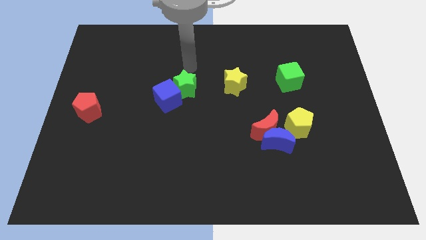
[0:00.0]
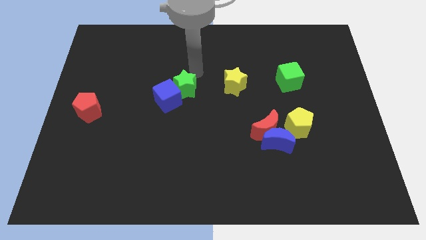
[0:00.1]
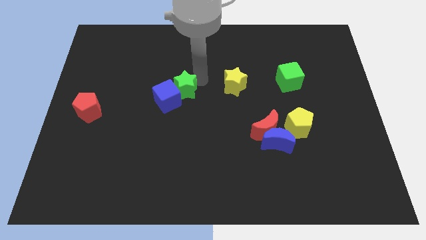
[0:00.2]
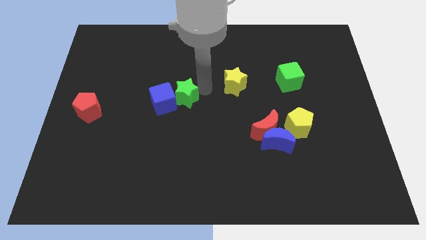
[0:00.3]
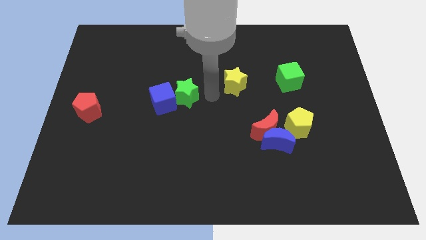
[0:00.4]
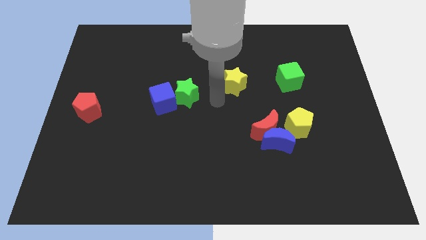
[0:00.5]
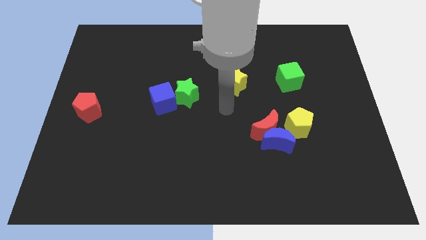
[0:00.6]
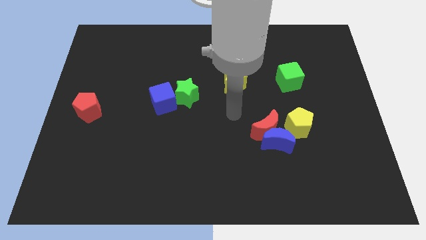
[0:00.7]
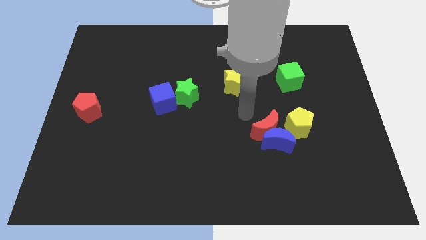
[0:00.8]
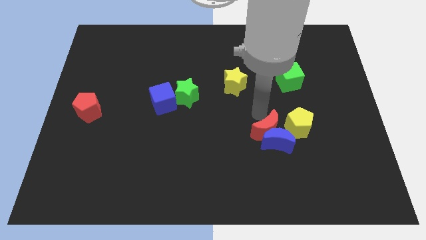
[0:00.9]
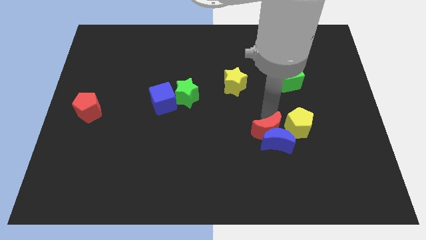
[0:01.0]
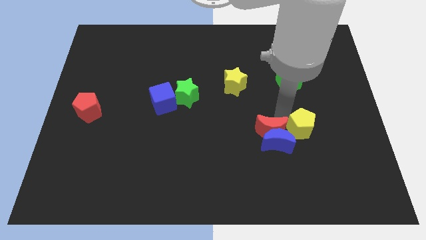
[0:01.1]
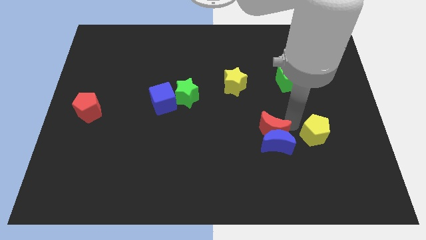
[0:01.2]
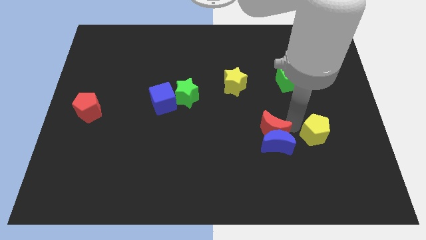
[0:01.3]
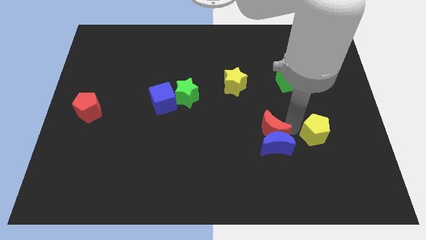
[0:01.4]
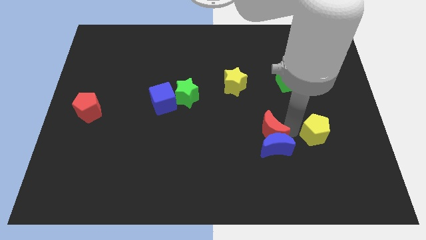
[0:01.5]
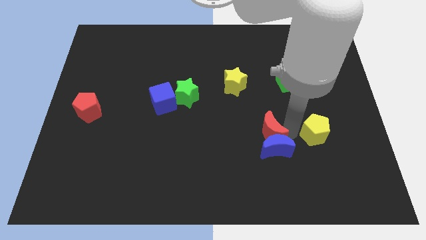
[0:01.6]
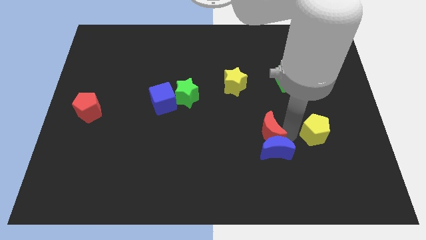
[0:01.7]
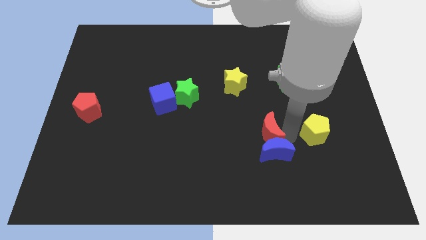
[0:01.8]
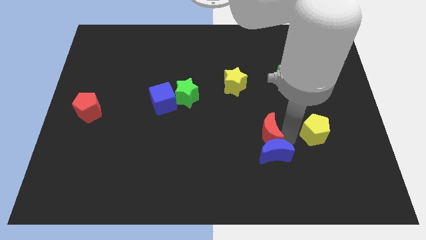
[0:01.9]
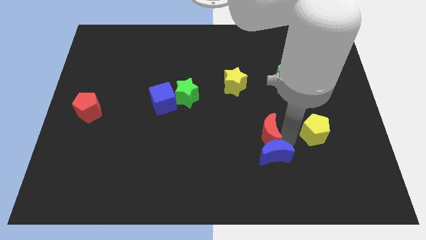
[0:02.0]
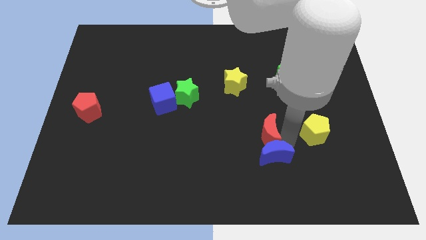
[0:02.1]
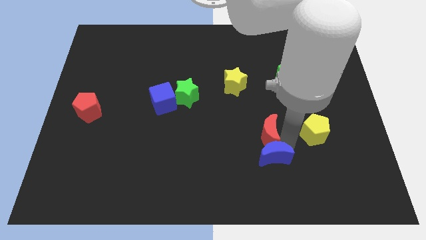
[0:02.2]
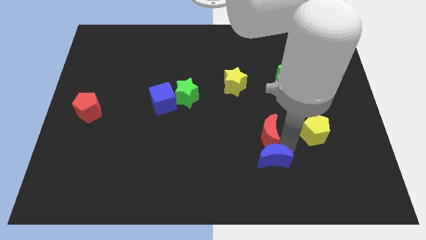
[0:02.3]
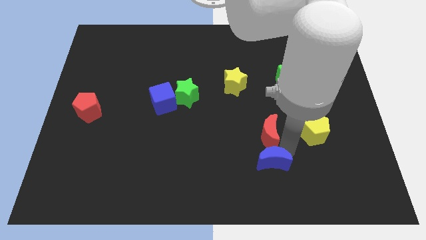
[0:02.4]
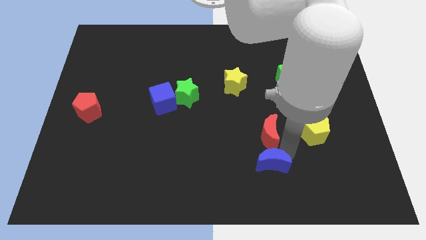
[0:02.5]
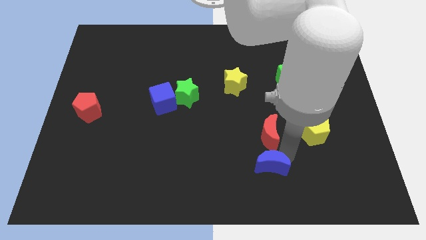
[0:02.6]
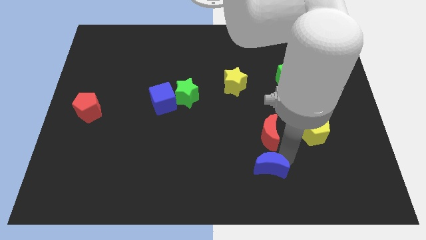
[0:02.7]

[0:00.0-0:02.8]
pull the blue moon apart from the red moon and yellow pentagon

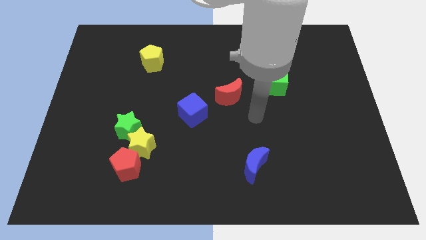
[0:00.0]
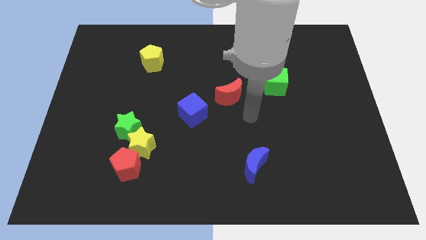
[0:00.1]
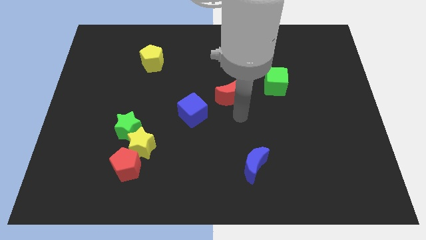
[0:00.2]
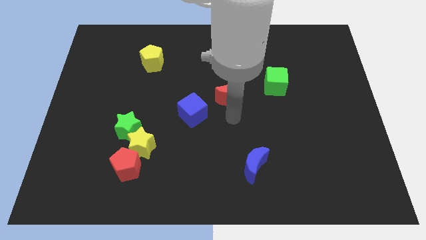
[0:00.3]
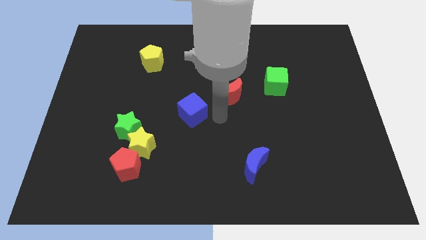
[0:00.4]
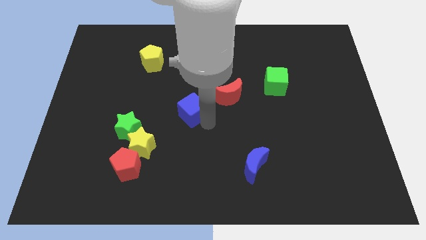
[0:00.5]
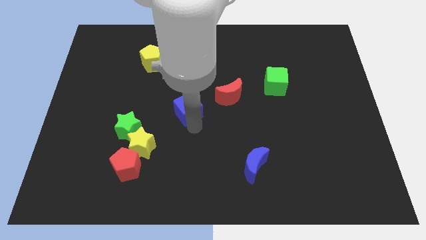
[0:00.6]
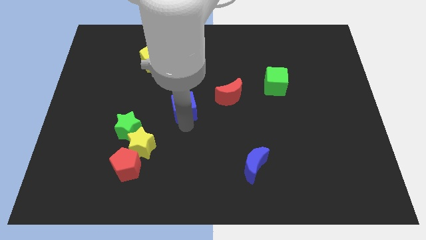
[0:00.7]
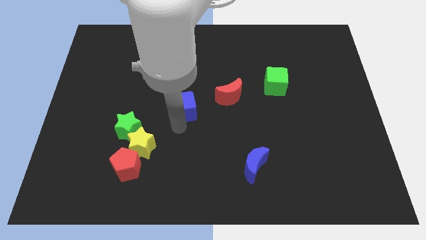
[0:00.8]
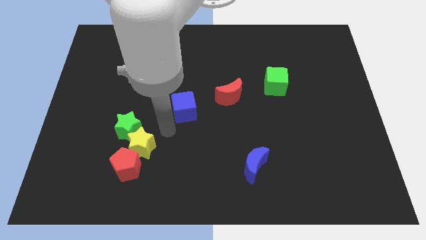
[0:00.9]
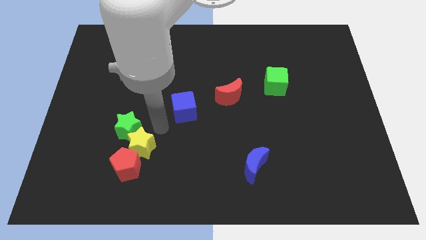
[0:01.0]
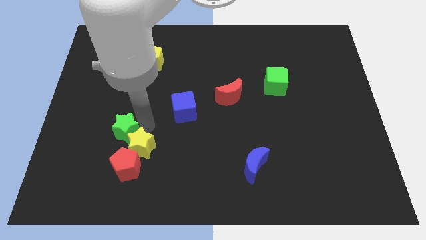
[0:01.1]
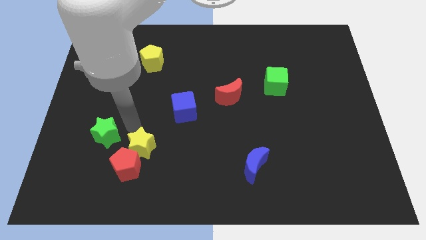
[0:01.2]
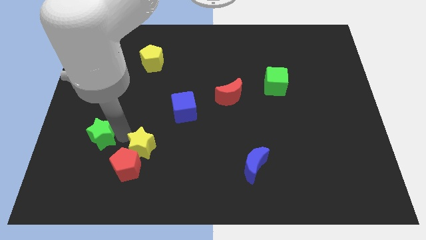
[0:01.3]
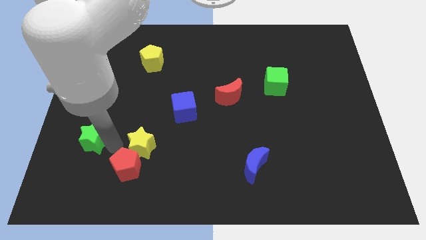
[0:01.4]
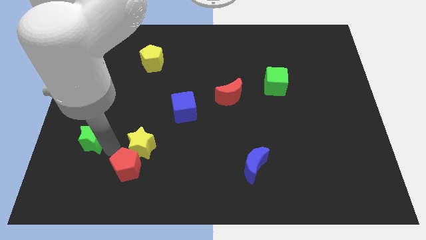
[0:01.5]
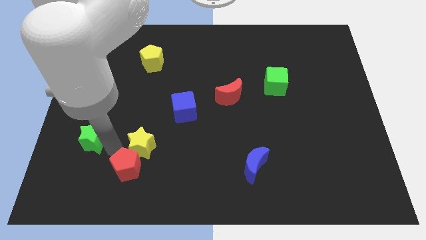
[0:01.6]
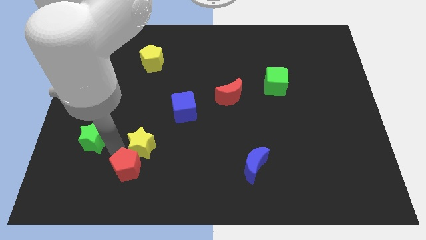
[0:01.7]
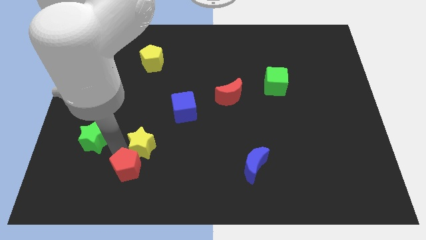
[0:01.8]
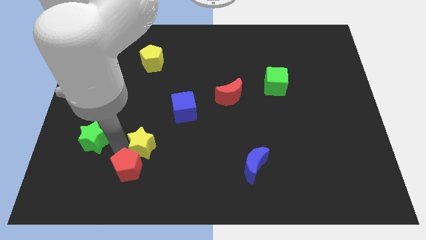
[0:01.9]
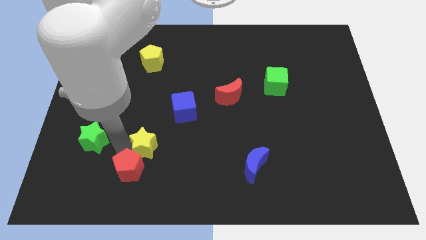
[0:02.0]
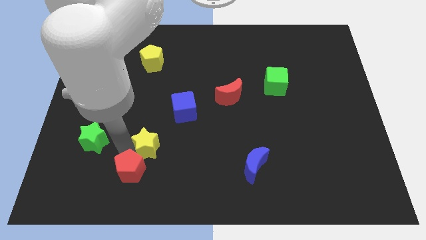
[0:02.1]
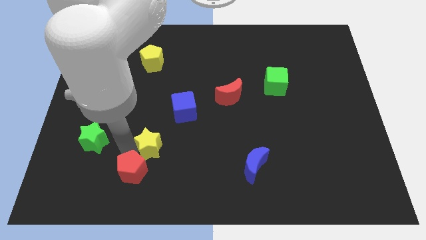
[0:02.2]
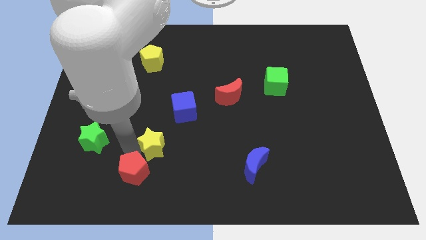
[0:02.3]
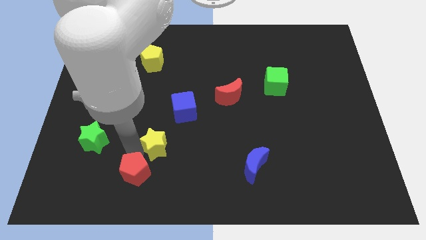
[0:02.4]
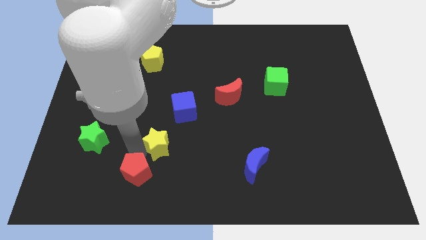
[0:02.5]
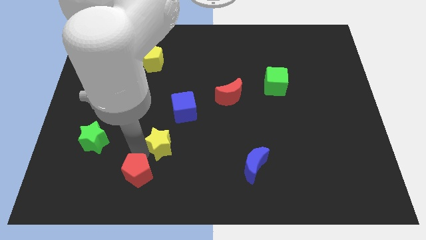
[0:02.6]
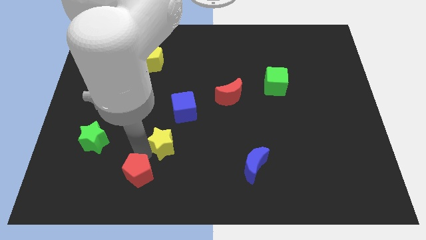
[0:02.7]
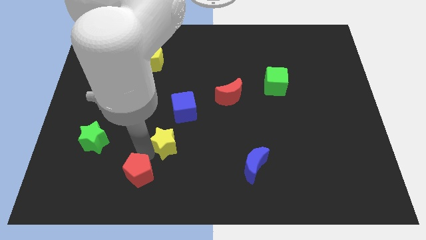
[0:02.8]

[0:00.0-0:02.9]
pull the yellow star apart from the green star and red pentagon

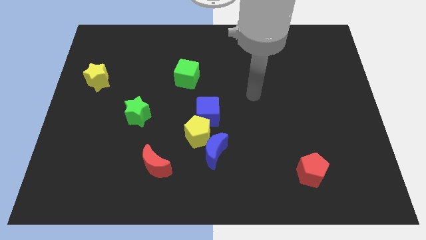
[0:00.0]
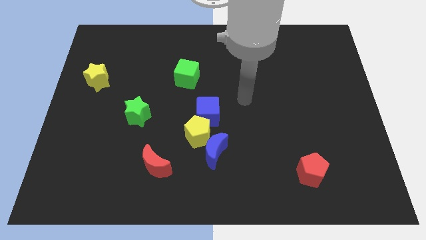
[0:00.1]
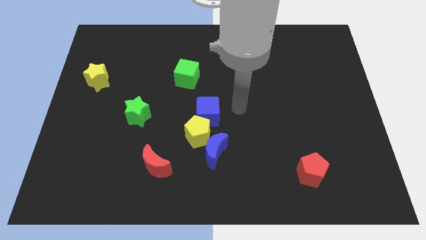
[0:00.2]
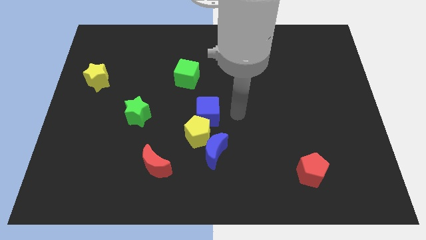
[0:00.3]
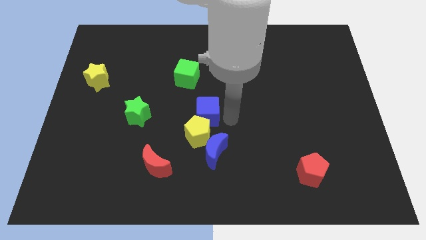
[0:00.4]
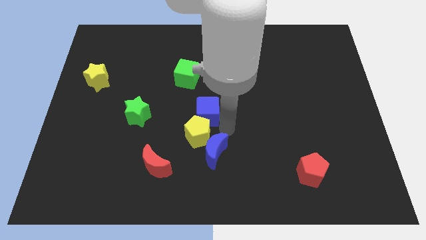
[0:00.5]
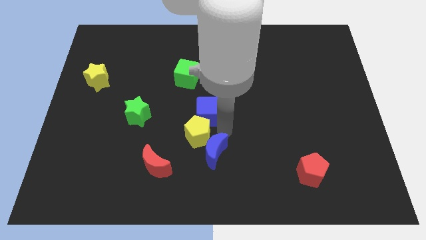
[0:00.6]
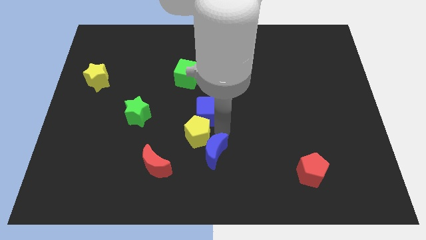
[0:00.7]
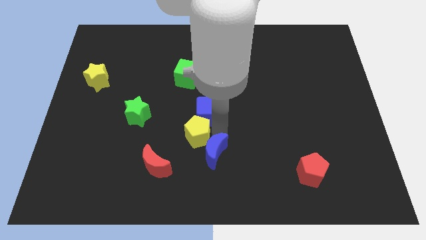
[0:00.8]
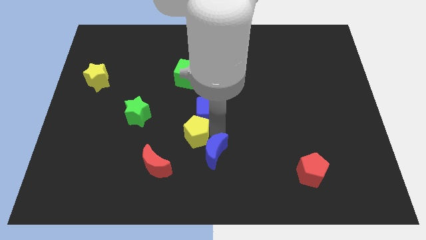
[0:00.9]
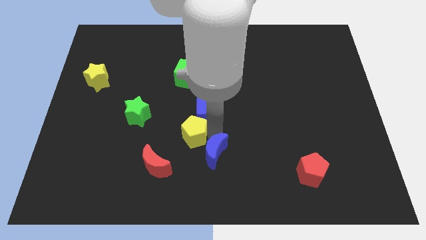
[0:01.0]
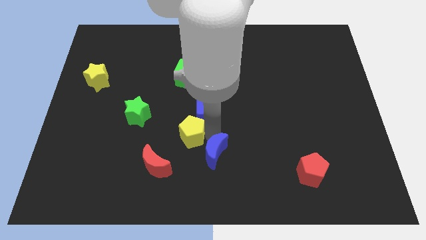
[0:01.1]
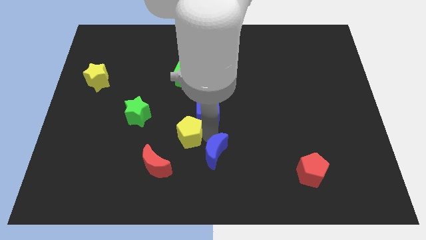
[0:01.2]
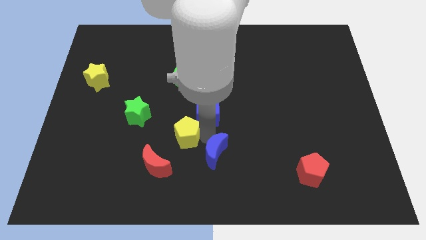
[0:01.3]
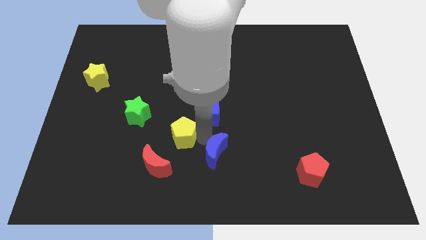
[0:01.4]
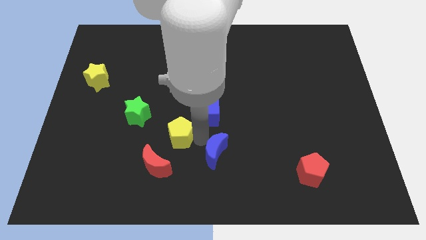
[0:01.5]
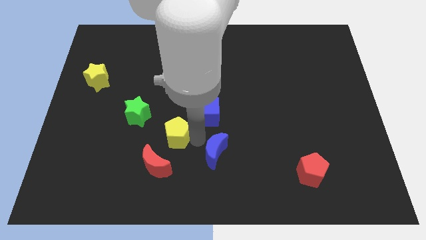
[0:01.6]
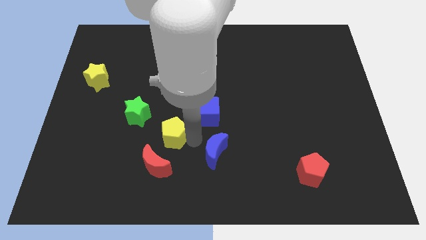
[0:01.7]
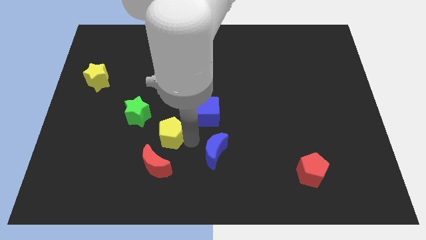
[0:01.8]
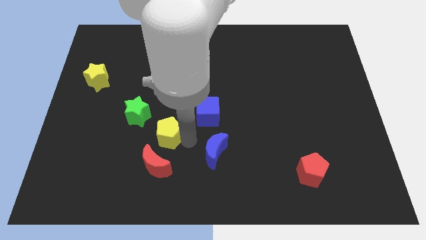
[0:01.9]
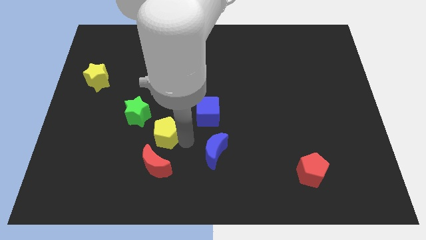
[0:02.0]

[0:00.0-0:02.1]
separate the yellow pentagon from the blue cube and blue moon

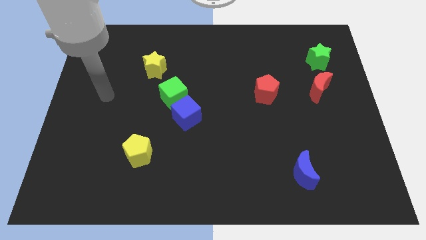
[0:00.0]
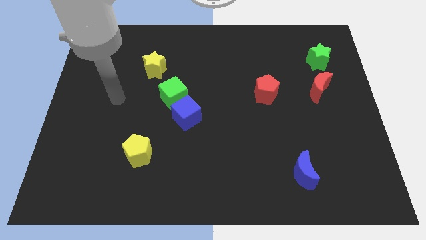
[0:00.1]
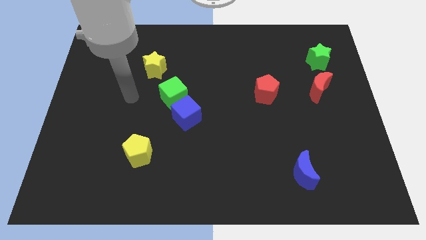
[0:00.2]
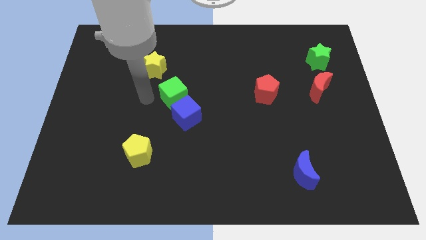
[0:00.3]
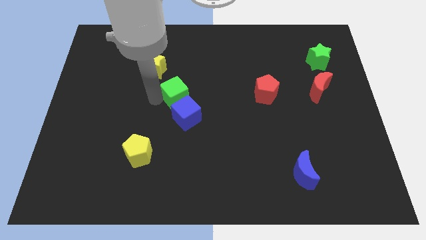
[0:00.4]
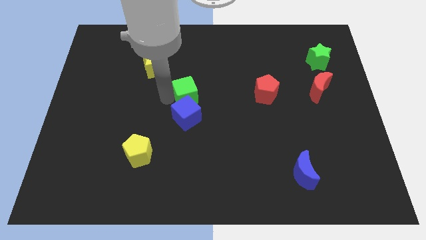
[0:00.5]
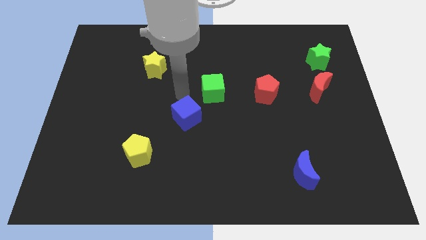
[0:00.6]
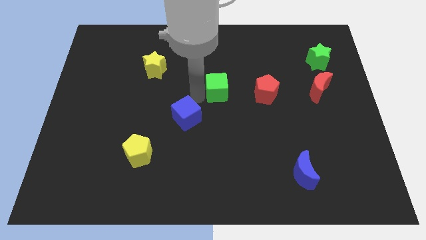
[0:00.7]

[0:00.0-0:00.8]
move the blue cube away from the green cube

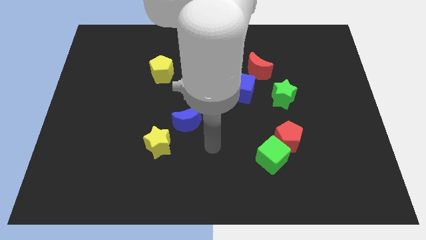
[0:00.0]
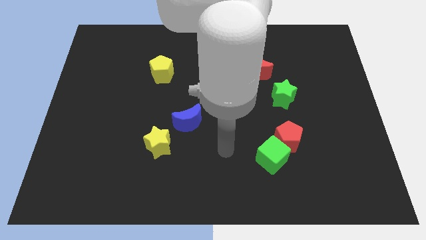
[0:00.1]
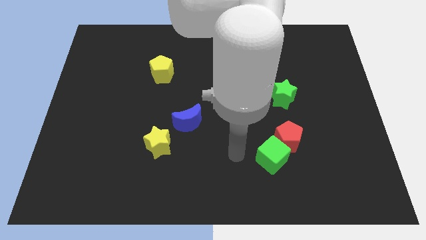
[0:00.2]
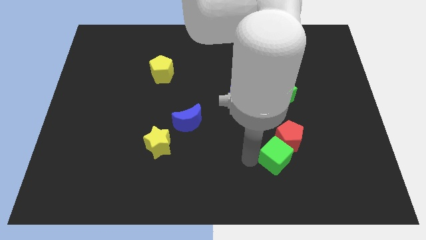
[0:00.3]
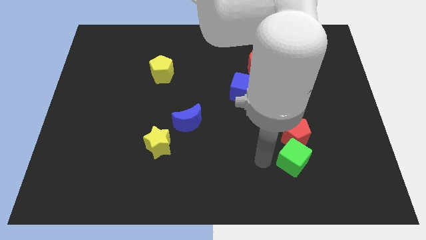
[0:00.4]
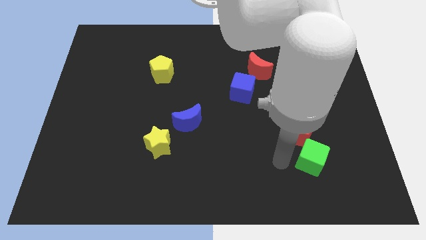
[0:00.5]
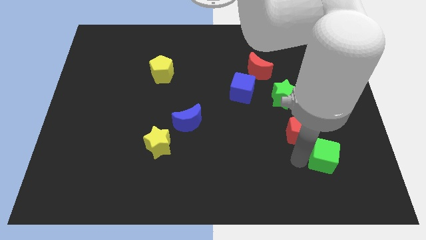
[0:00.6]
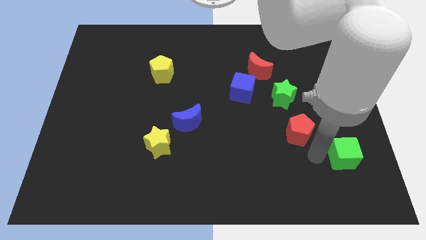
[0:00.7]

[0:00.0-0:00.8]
pull the red pentagon apart from the green cube
